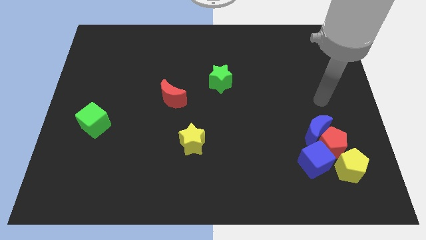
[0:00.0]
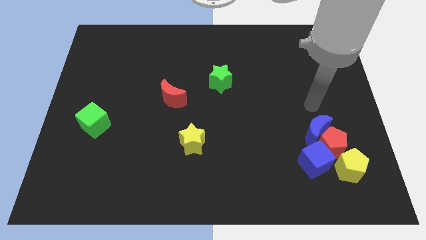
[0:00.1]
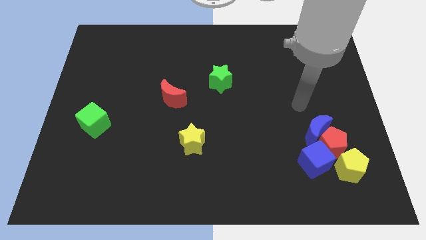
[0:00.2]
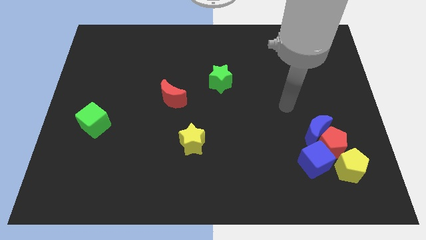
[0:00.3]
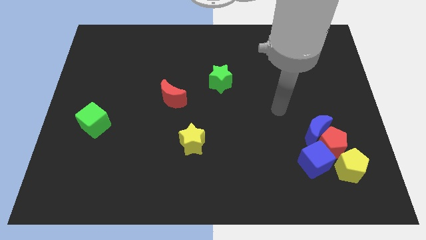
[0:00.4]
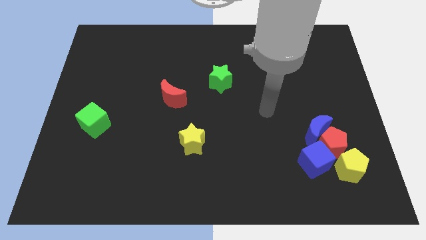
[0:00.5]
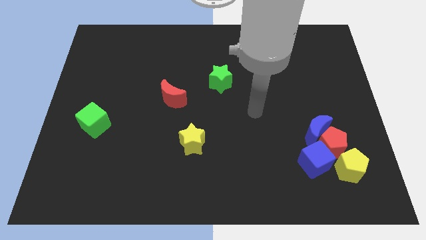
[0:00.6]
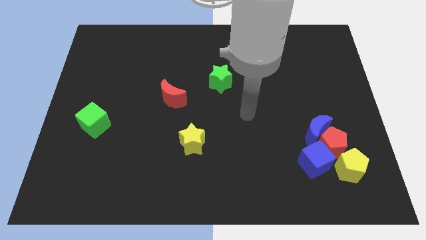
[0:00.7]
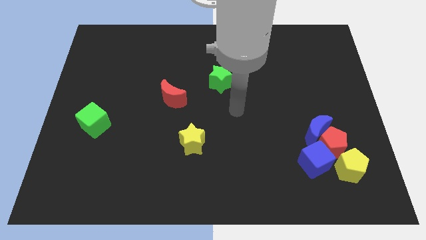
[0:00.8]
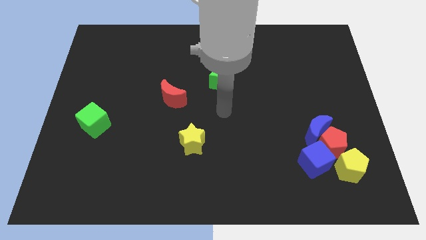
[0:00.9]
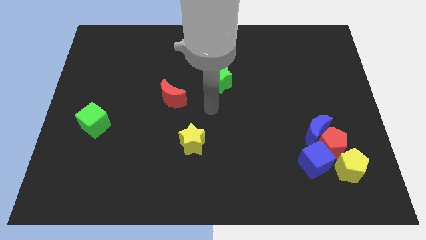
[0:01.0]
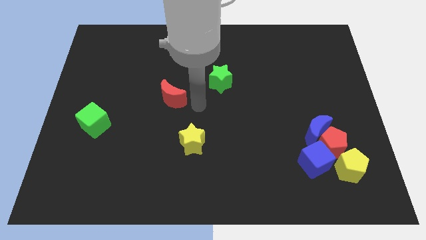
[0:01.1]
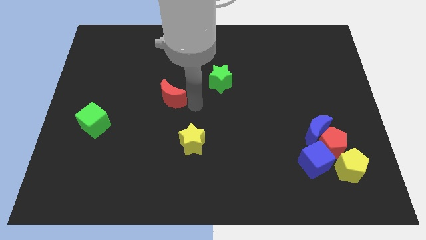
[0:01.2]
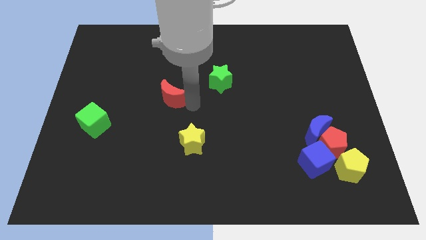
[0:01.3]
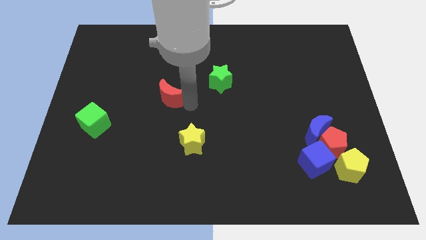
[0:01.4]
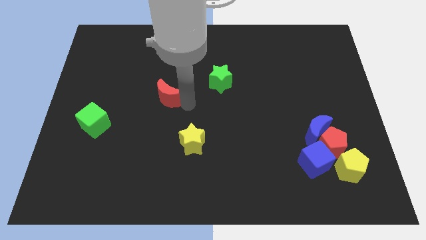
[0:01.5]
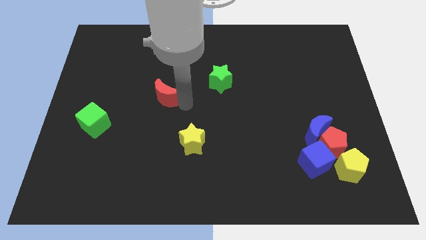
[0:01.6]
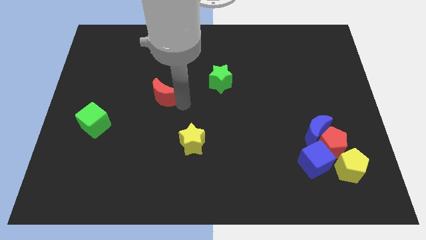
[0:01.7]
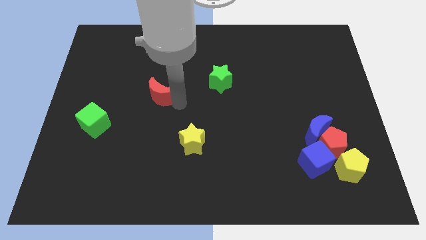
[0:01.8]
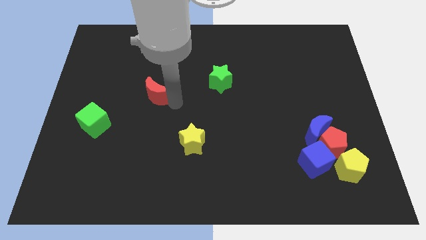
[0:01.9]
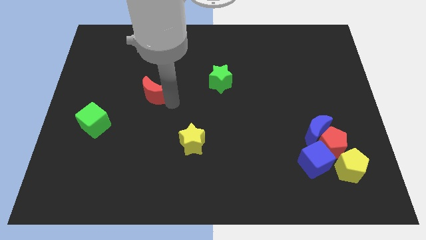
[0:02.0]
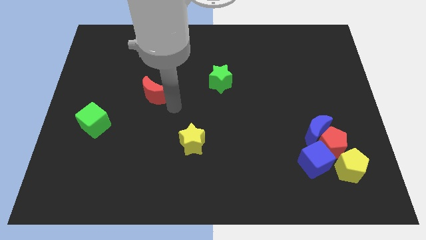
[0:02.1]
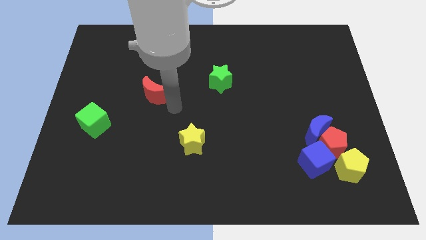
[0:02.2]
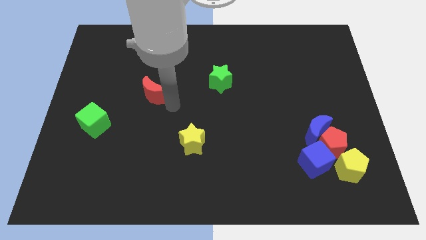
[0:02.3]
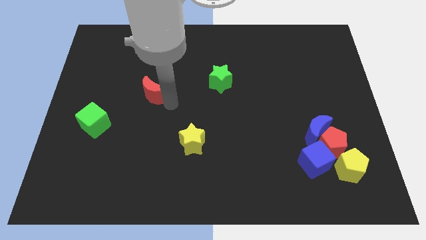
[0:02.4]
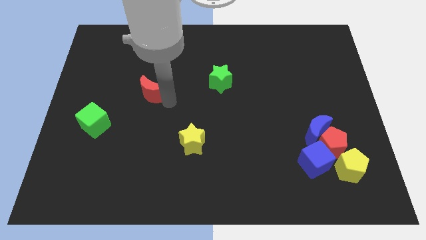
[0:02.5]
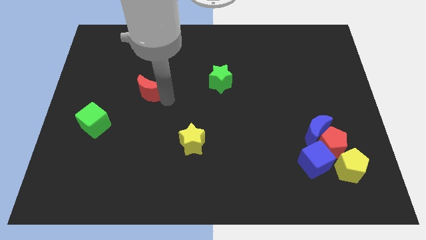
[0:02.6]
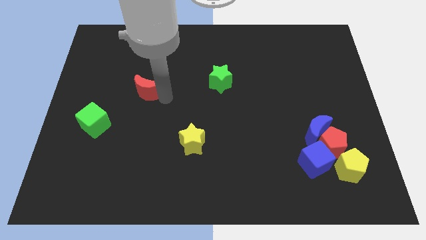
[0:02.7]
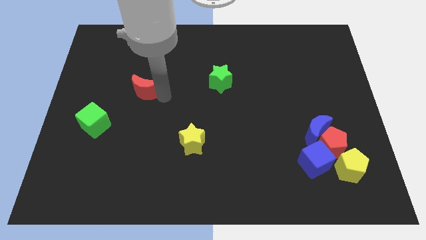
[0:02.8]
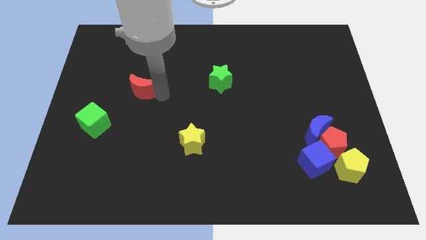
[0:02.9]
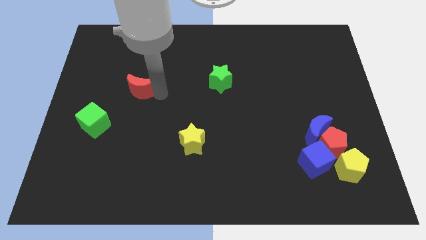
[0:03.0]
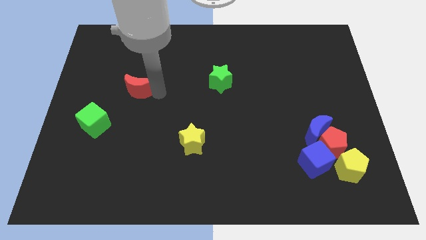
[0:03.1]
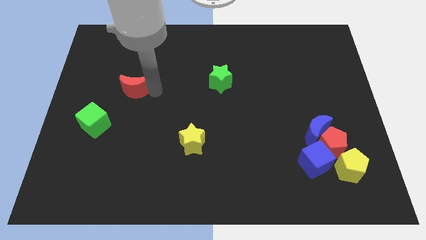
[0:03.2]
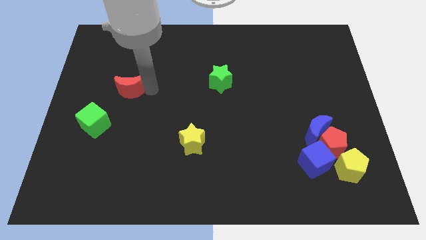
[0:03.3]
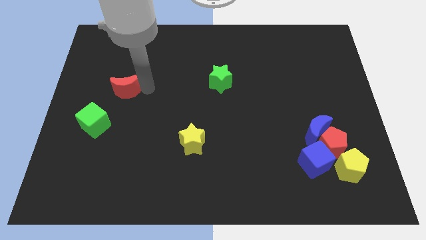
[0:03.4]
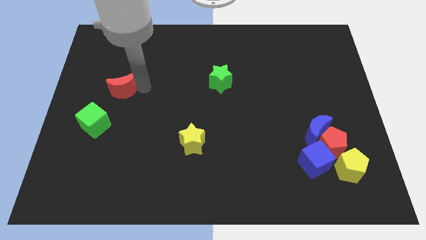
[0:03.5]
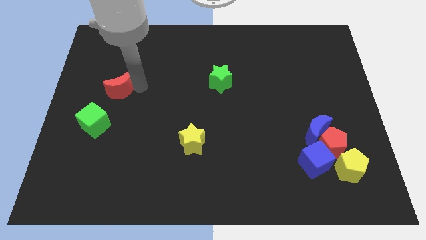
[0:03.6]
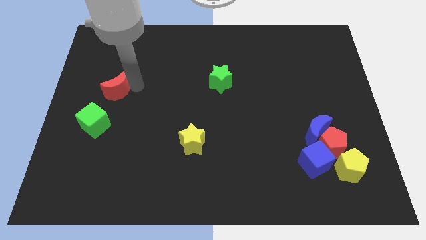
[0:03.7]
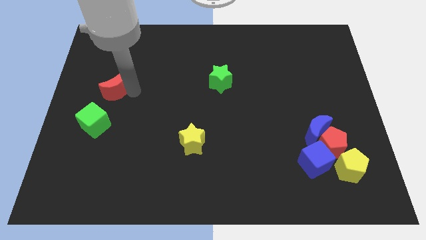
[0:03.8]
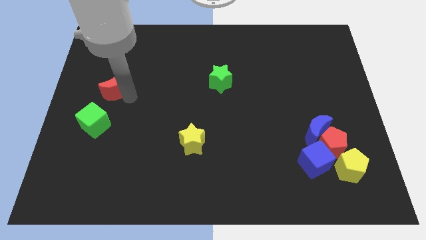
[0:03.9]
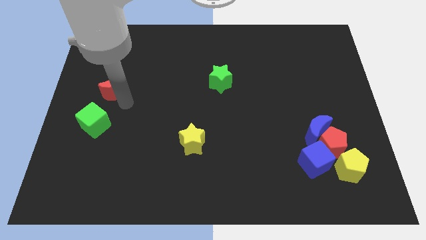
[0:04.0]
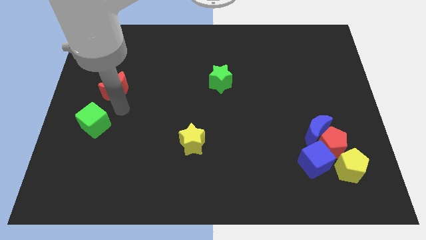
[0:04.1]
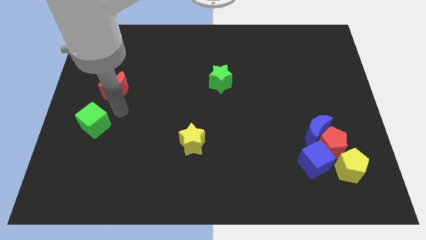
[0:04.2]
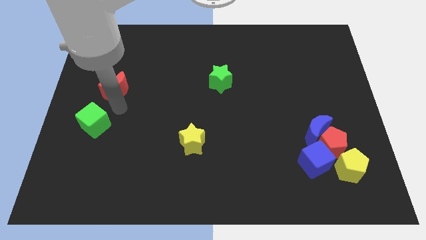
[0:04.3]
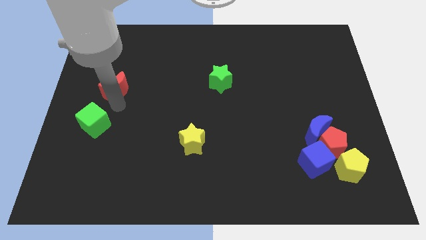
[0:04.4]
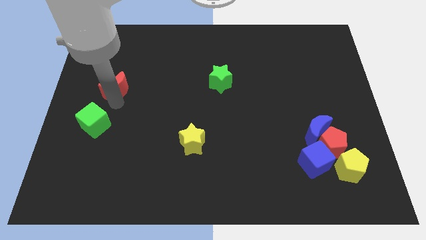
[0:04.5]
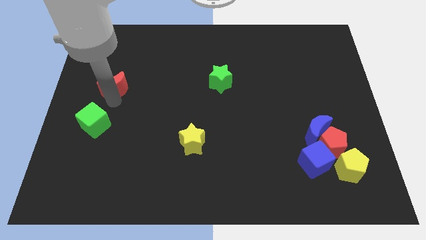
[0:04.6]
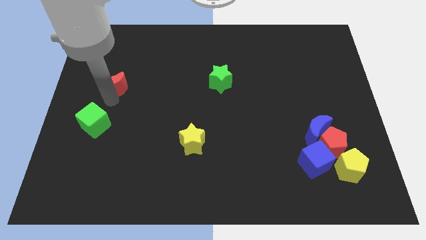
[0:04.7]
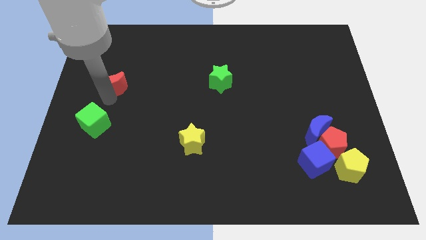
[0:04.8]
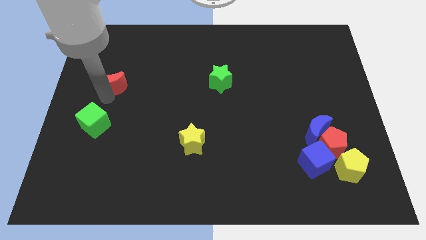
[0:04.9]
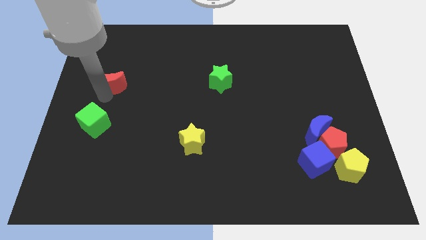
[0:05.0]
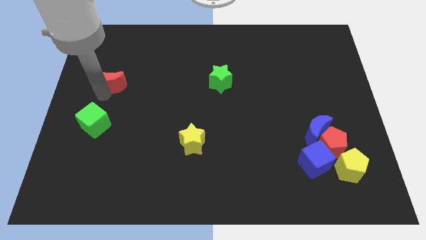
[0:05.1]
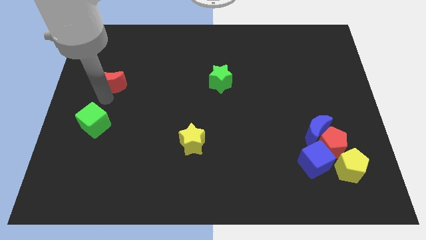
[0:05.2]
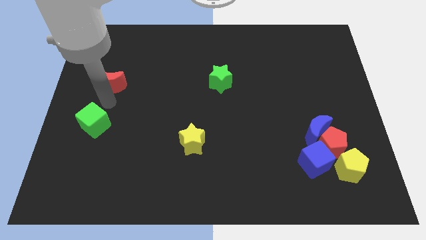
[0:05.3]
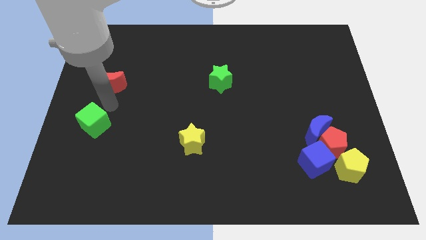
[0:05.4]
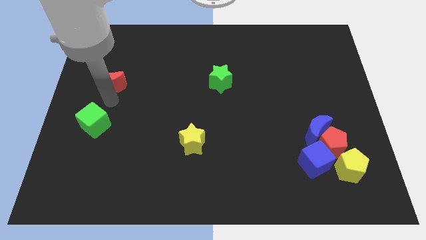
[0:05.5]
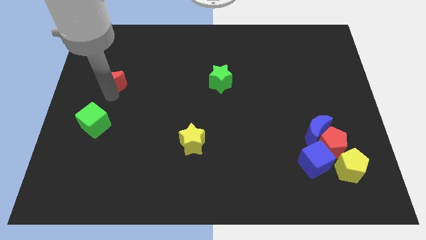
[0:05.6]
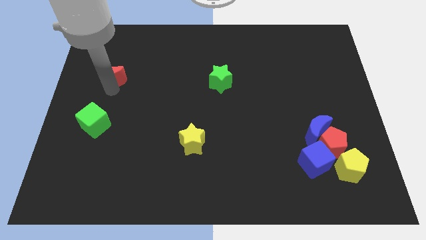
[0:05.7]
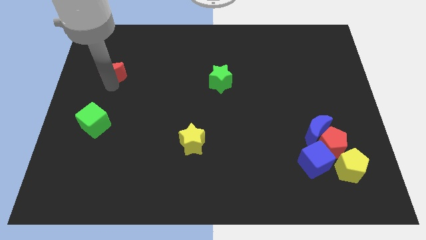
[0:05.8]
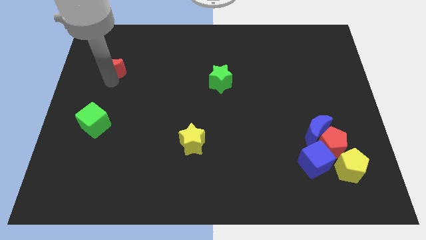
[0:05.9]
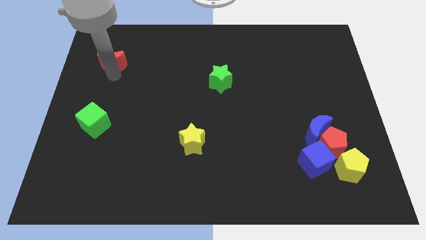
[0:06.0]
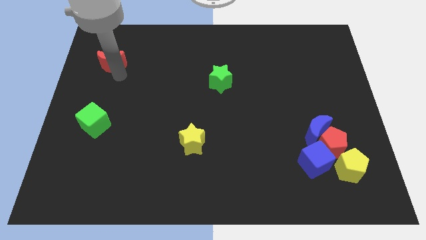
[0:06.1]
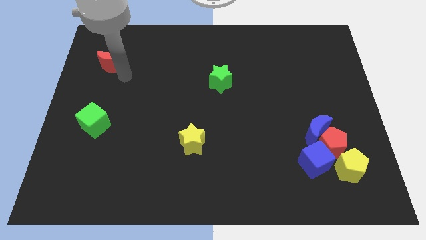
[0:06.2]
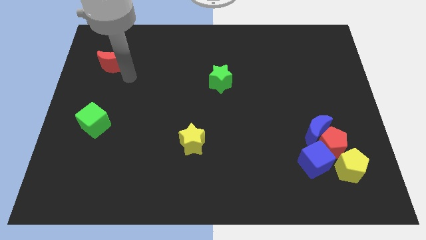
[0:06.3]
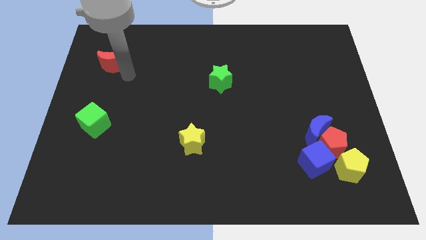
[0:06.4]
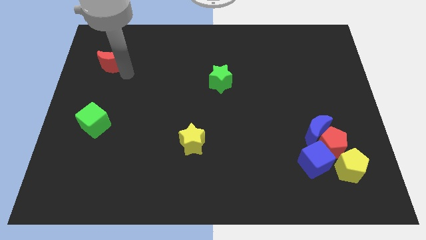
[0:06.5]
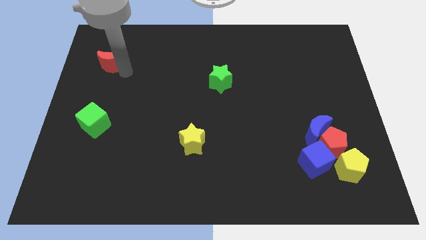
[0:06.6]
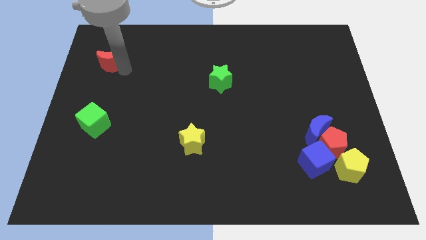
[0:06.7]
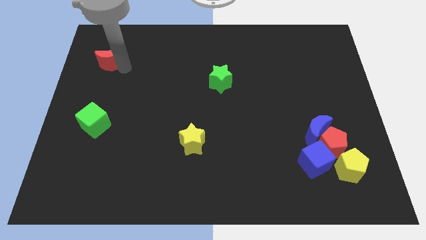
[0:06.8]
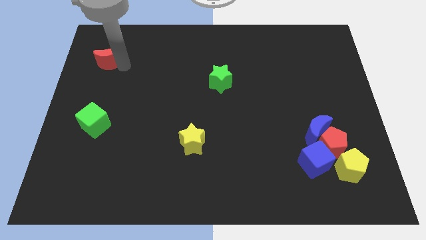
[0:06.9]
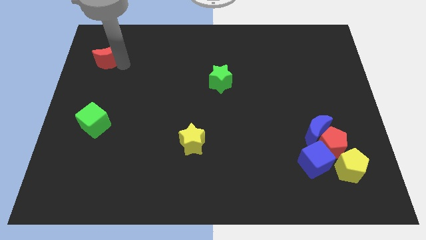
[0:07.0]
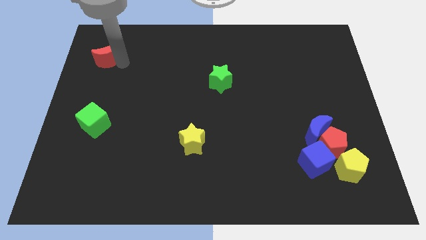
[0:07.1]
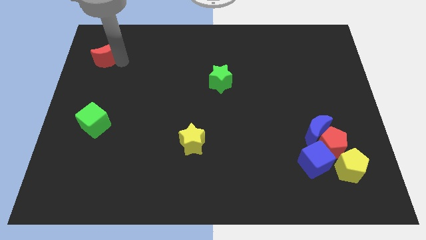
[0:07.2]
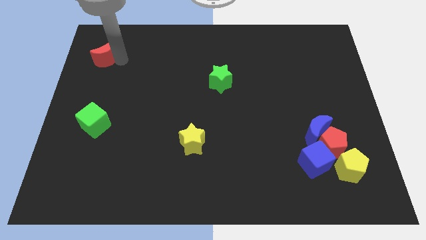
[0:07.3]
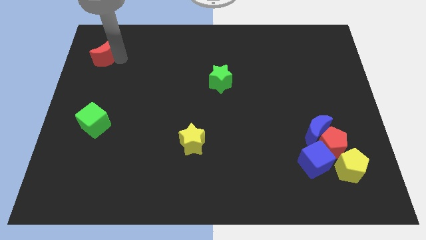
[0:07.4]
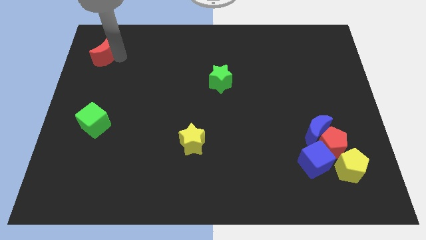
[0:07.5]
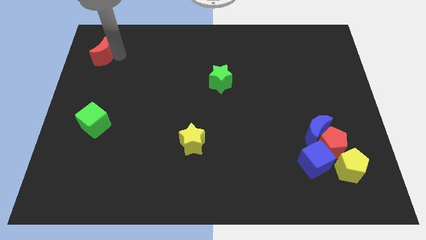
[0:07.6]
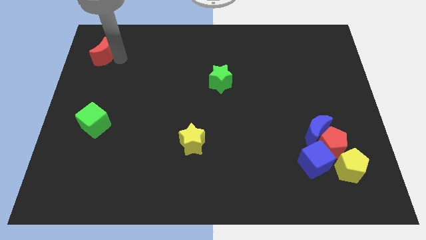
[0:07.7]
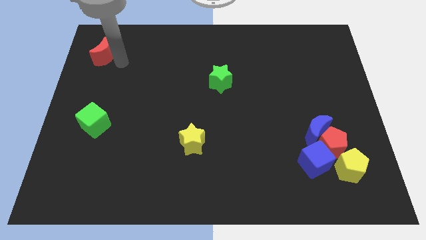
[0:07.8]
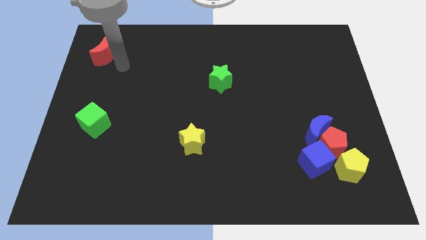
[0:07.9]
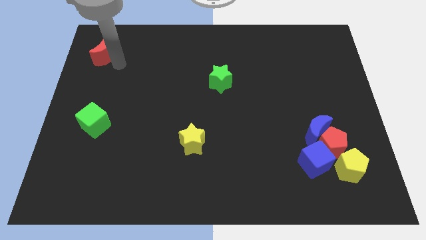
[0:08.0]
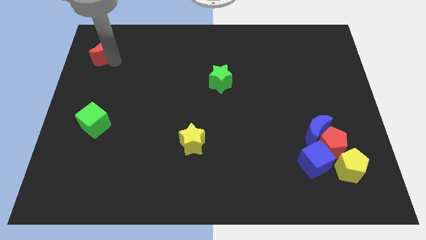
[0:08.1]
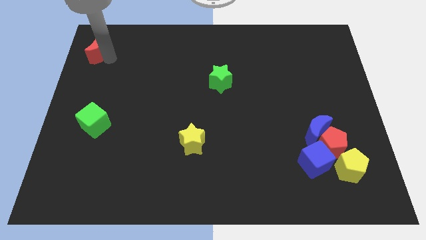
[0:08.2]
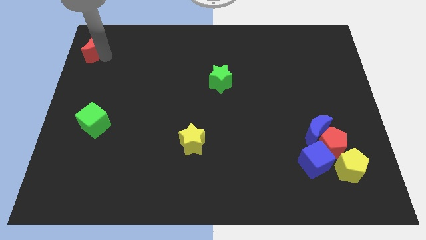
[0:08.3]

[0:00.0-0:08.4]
slide the red moon to the top left of the board
